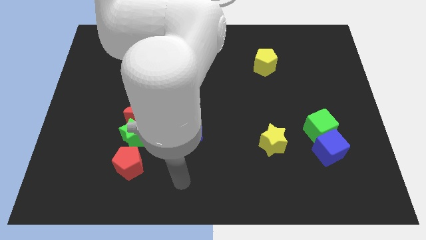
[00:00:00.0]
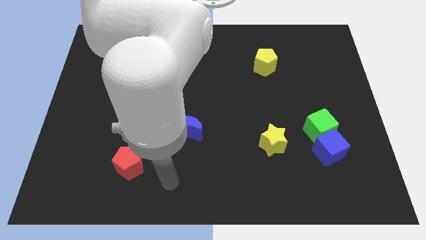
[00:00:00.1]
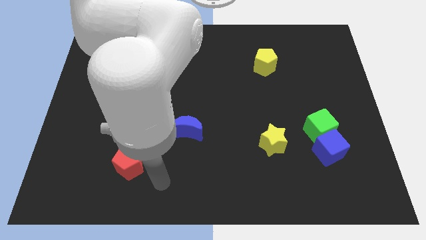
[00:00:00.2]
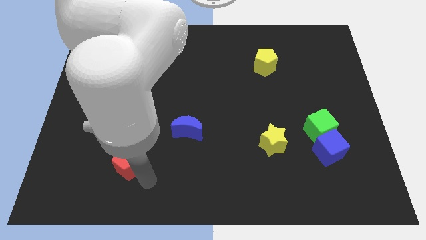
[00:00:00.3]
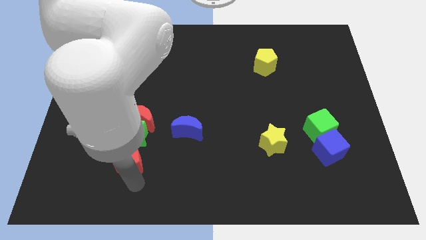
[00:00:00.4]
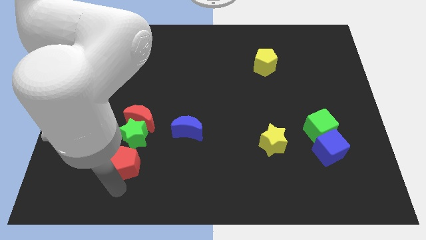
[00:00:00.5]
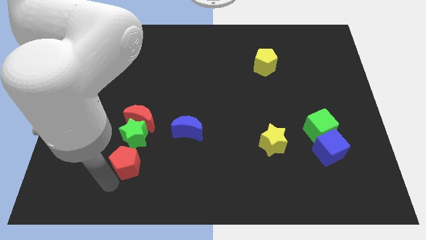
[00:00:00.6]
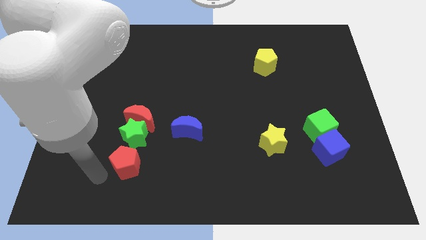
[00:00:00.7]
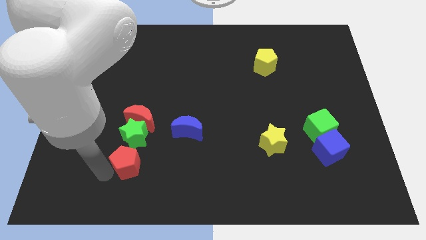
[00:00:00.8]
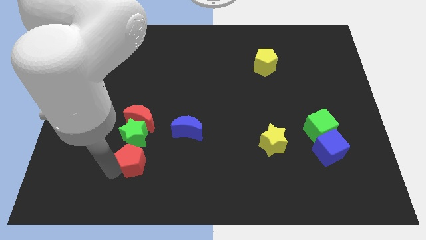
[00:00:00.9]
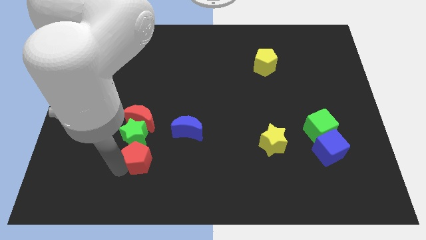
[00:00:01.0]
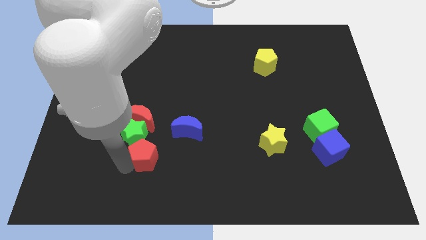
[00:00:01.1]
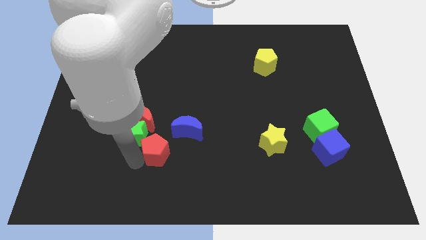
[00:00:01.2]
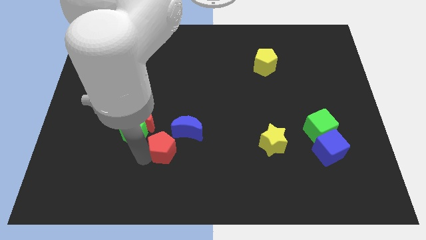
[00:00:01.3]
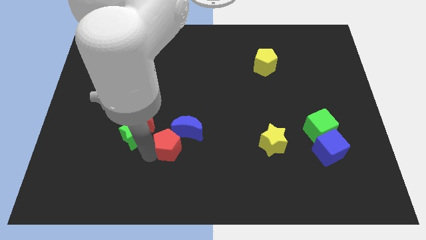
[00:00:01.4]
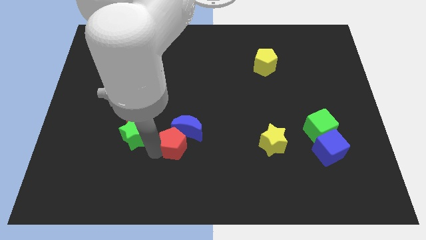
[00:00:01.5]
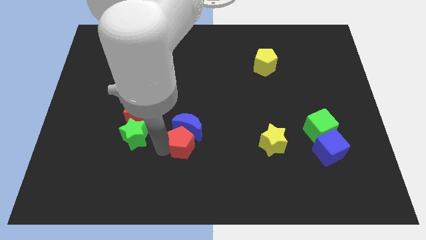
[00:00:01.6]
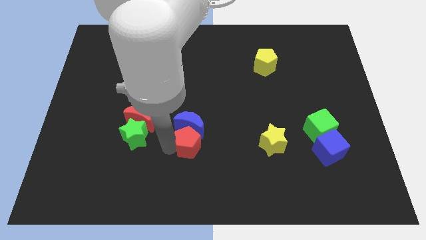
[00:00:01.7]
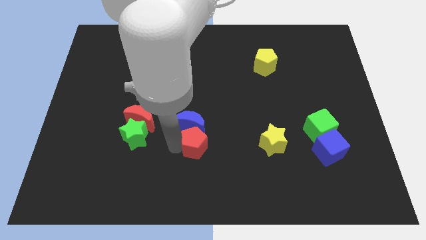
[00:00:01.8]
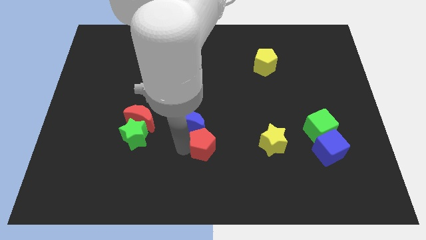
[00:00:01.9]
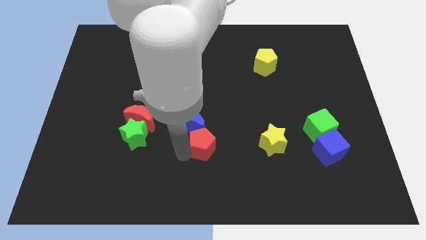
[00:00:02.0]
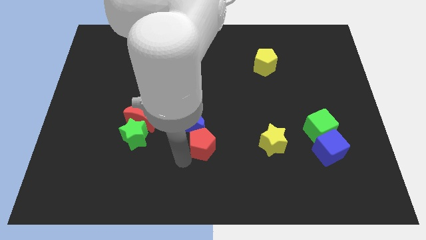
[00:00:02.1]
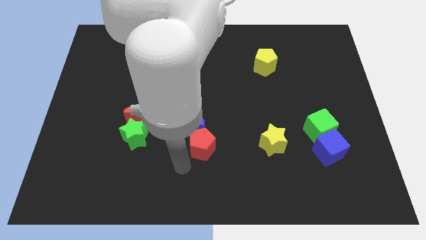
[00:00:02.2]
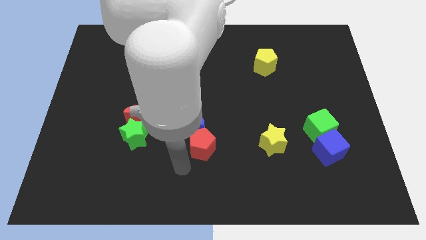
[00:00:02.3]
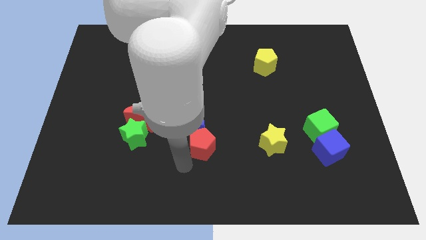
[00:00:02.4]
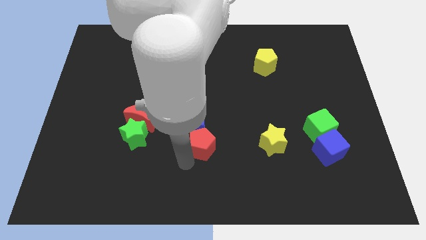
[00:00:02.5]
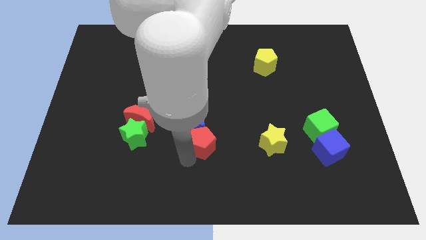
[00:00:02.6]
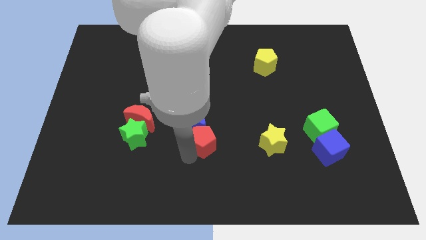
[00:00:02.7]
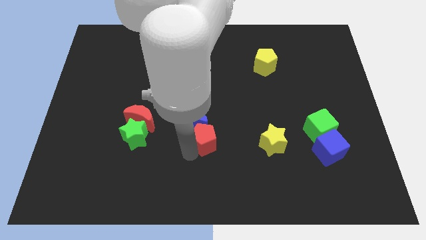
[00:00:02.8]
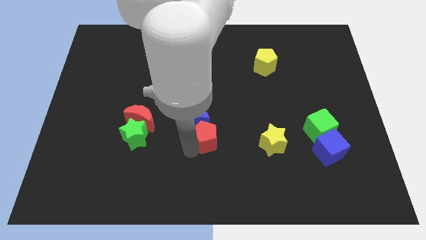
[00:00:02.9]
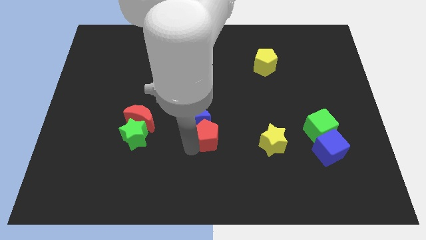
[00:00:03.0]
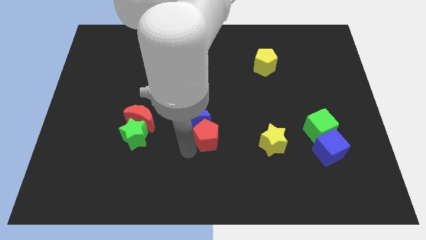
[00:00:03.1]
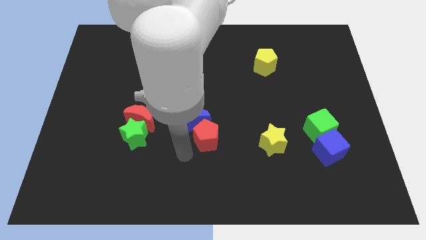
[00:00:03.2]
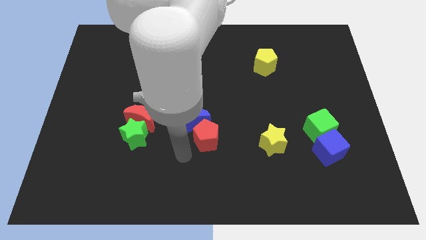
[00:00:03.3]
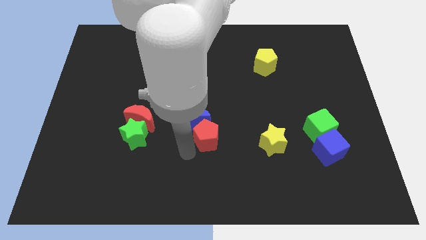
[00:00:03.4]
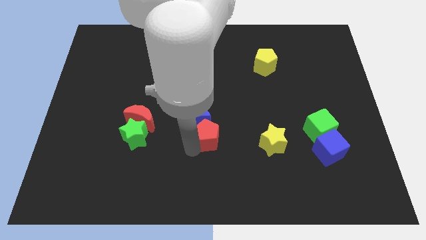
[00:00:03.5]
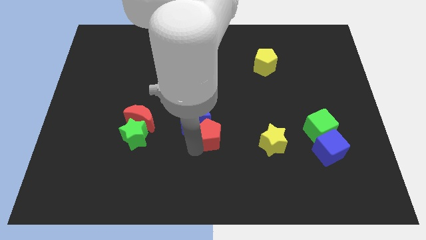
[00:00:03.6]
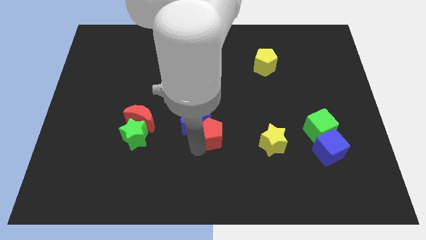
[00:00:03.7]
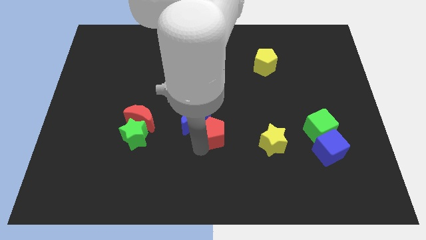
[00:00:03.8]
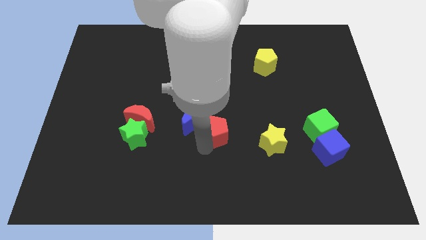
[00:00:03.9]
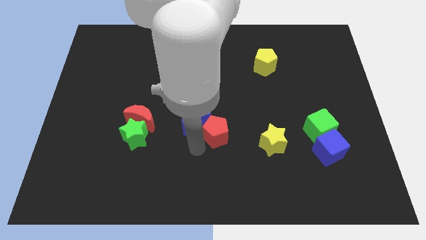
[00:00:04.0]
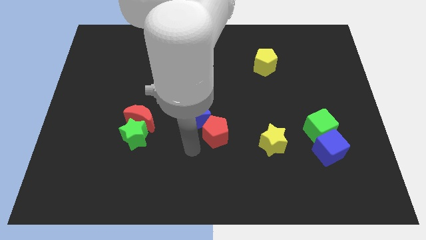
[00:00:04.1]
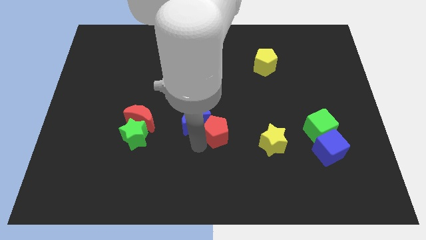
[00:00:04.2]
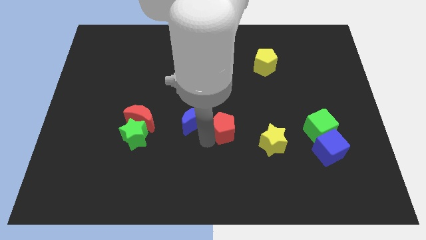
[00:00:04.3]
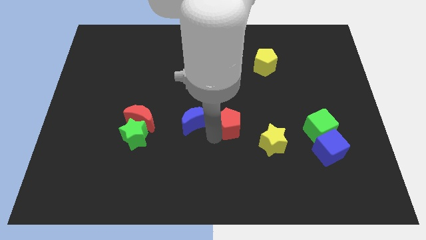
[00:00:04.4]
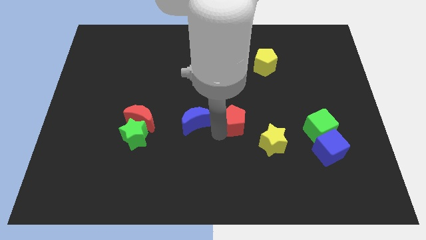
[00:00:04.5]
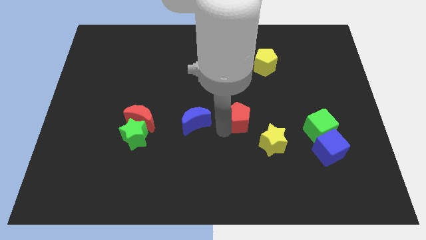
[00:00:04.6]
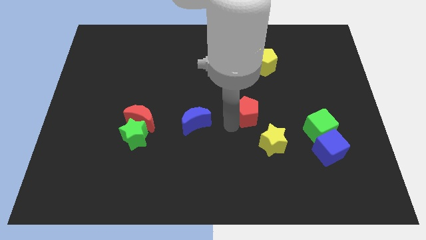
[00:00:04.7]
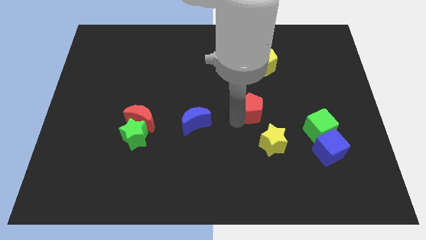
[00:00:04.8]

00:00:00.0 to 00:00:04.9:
slide the red pentagon to the top side of the yellow star

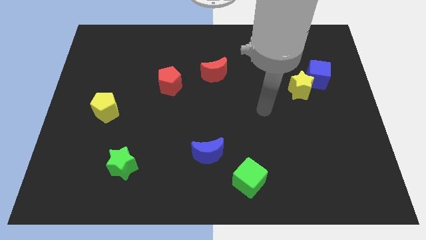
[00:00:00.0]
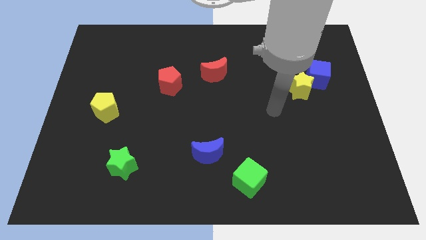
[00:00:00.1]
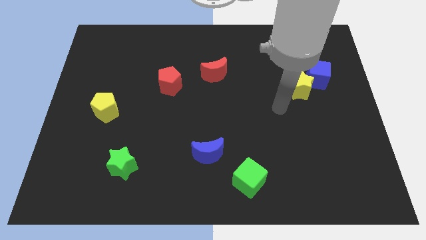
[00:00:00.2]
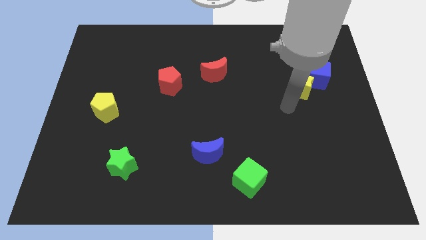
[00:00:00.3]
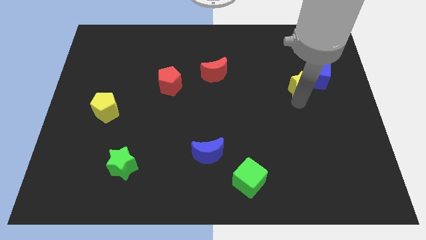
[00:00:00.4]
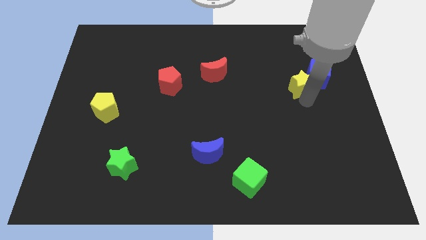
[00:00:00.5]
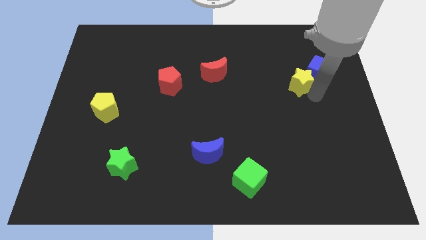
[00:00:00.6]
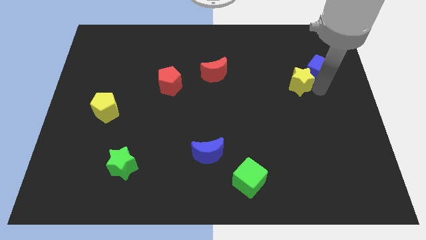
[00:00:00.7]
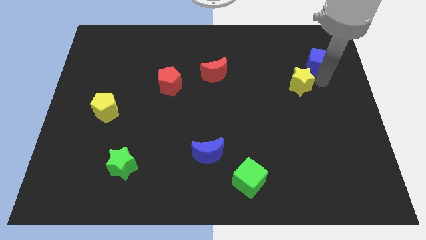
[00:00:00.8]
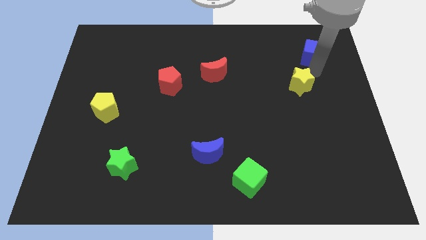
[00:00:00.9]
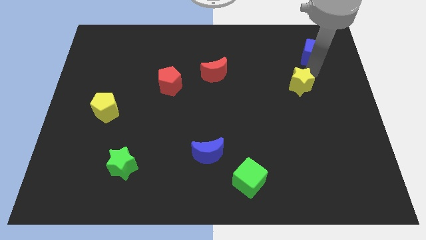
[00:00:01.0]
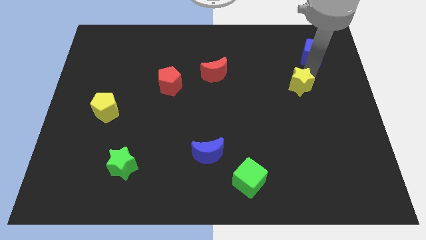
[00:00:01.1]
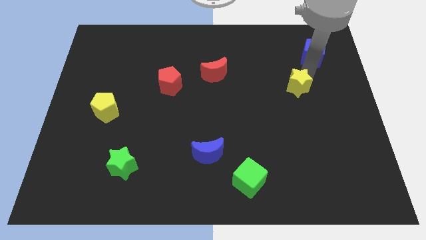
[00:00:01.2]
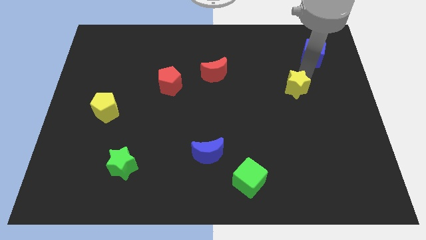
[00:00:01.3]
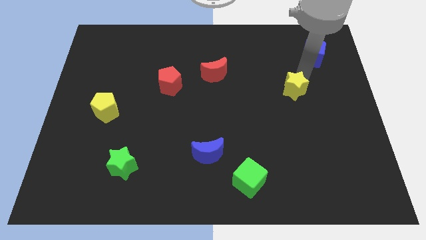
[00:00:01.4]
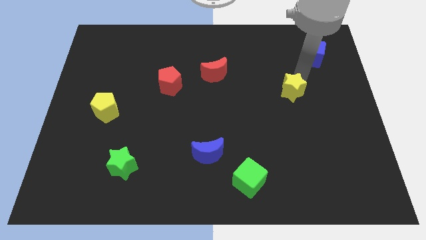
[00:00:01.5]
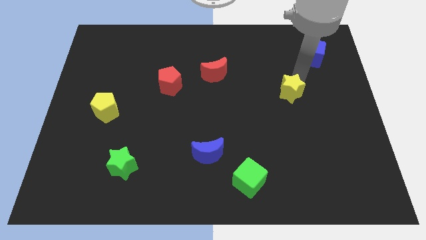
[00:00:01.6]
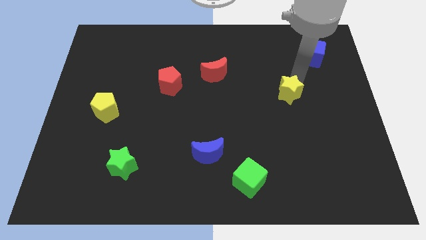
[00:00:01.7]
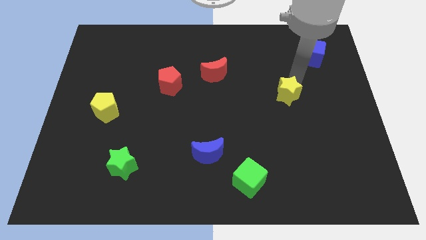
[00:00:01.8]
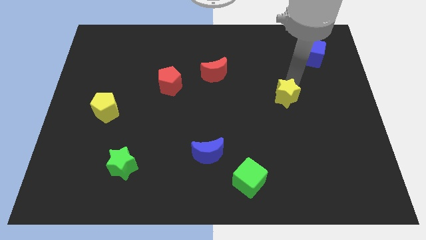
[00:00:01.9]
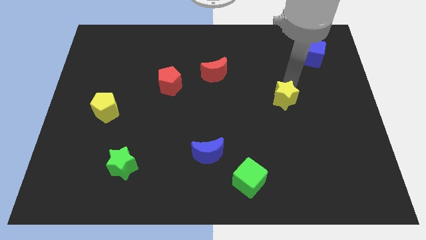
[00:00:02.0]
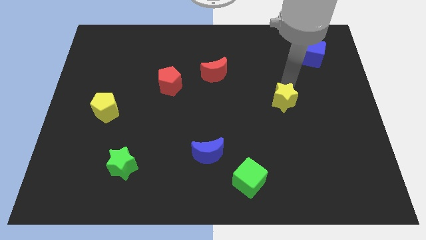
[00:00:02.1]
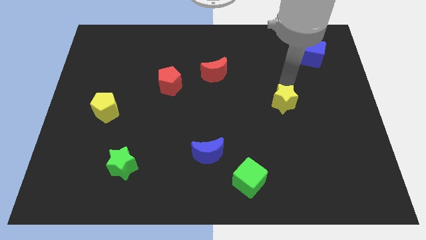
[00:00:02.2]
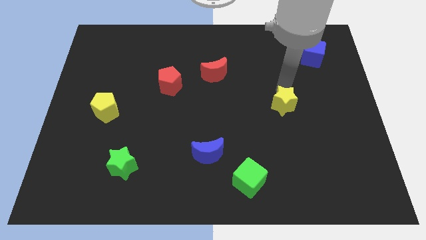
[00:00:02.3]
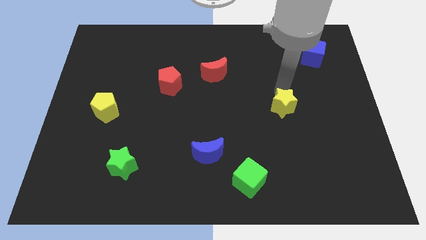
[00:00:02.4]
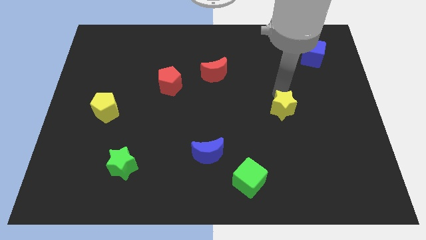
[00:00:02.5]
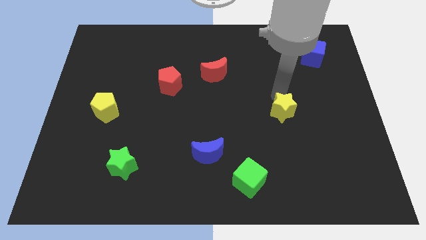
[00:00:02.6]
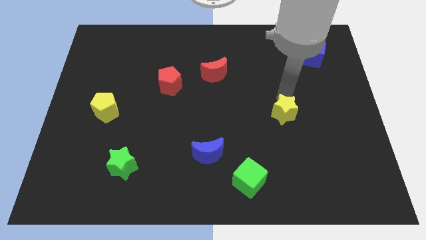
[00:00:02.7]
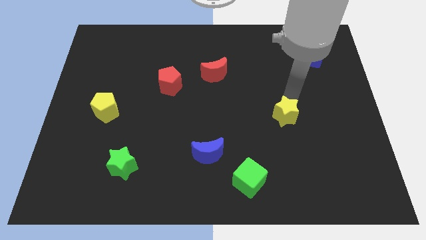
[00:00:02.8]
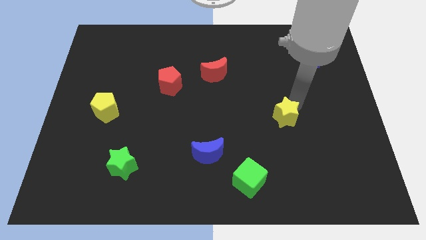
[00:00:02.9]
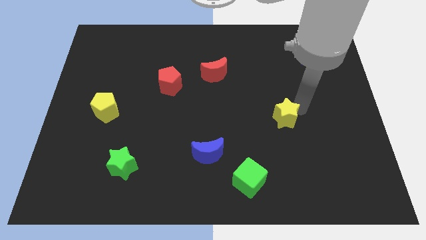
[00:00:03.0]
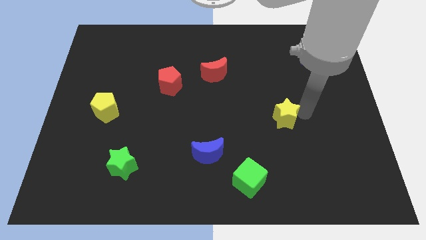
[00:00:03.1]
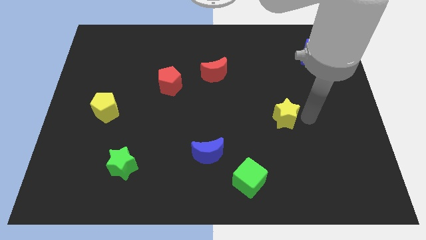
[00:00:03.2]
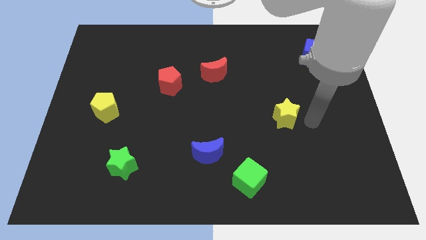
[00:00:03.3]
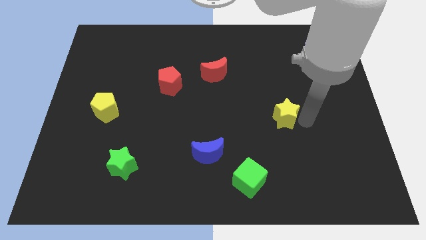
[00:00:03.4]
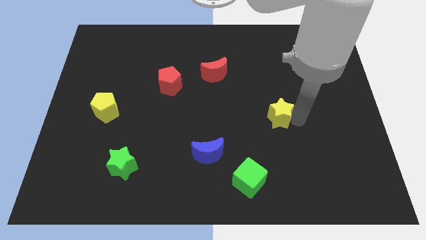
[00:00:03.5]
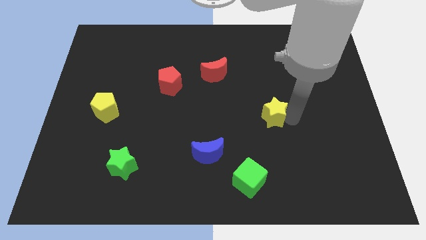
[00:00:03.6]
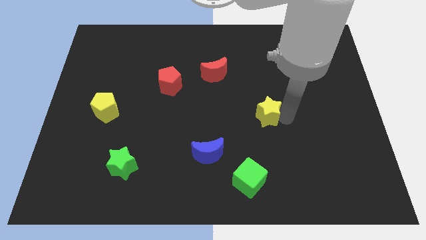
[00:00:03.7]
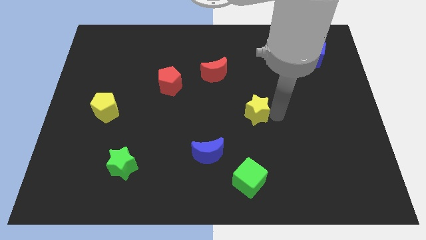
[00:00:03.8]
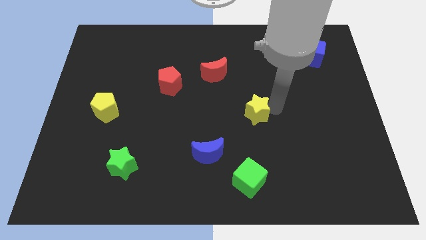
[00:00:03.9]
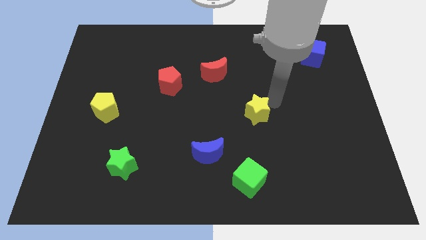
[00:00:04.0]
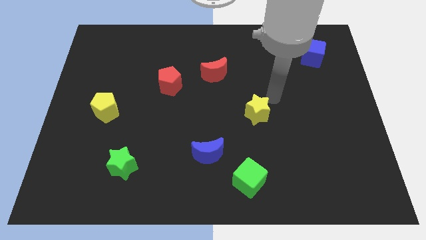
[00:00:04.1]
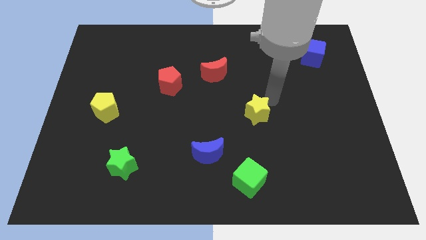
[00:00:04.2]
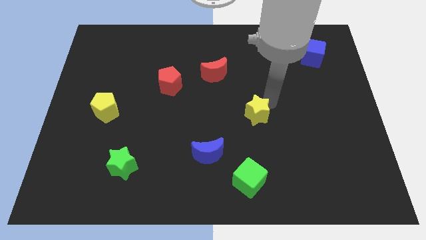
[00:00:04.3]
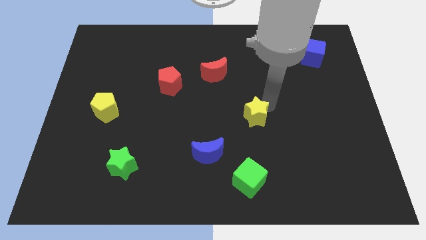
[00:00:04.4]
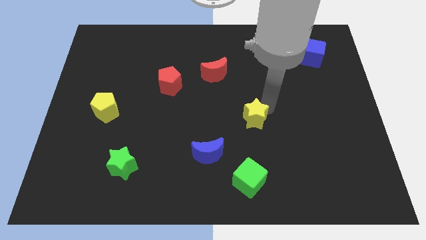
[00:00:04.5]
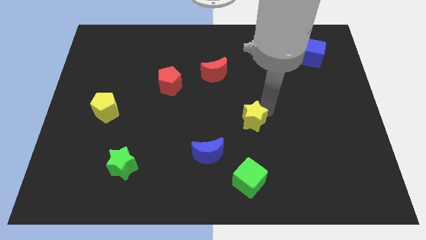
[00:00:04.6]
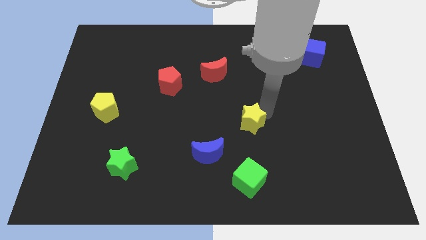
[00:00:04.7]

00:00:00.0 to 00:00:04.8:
move the yellow star diagonally up and to the right of the blue moon
